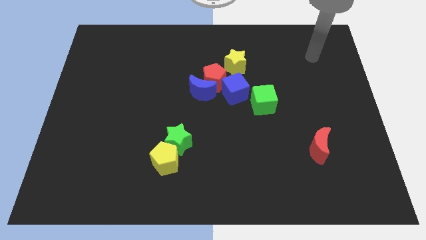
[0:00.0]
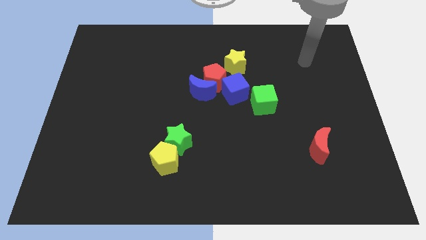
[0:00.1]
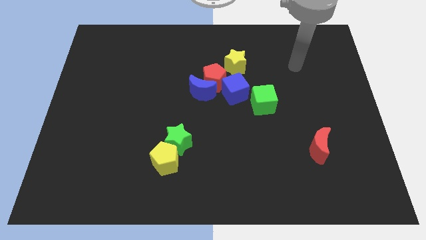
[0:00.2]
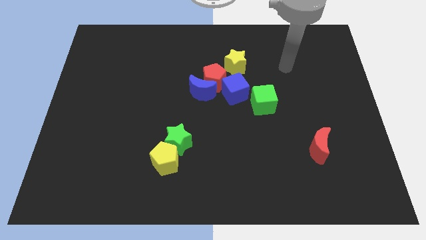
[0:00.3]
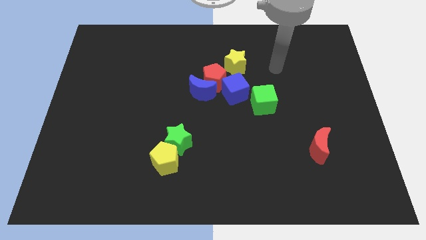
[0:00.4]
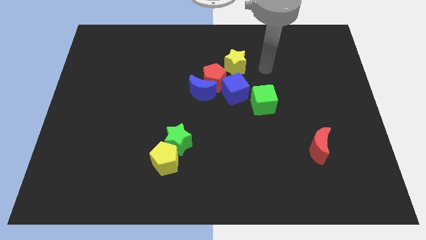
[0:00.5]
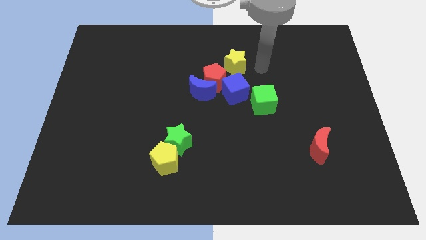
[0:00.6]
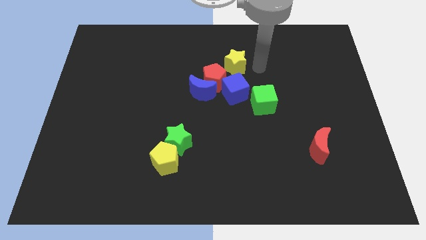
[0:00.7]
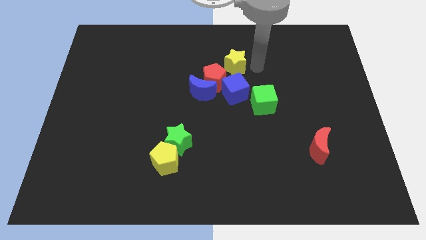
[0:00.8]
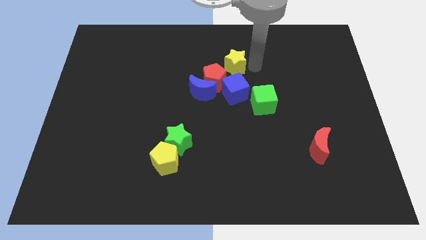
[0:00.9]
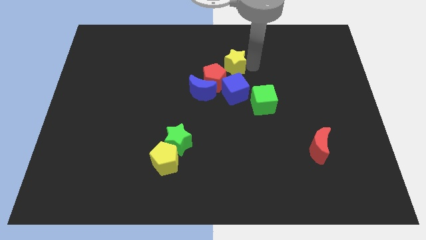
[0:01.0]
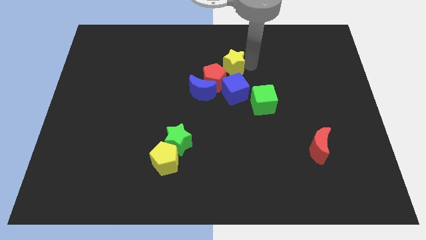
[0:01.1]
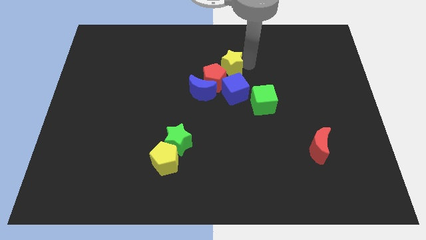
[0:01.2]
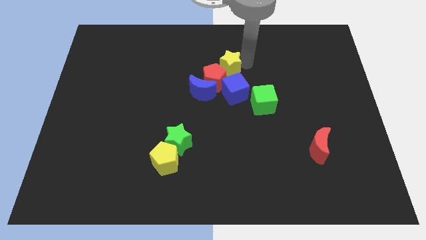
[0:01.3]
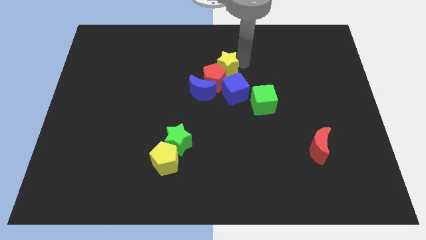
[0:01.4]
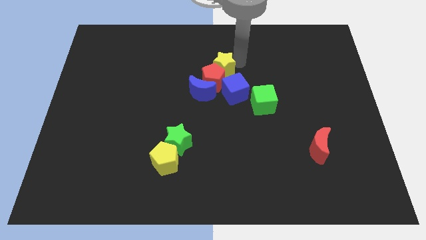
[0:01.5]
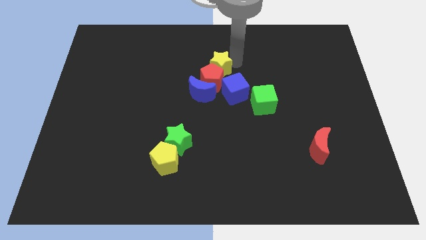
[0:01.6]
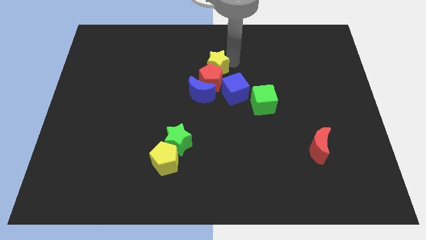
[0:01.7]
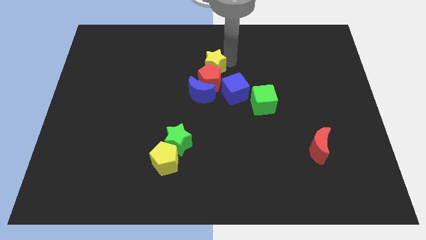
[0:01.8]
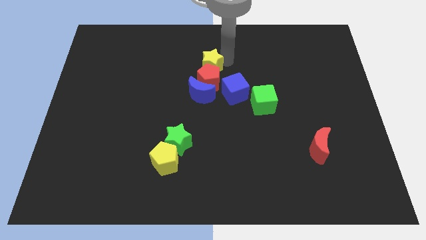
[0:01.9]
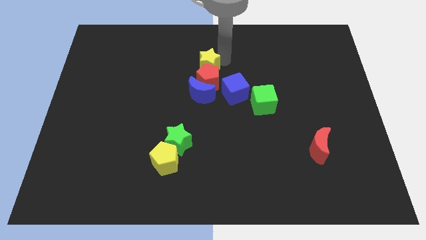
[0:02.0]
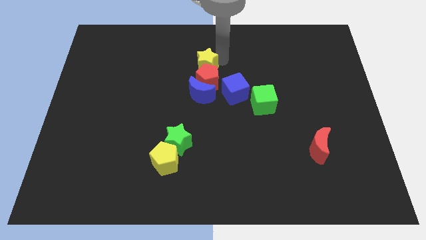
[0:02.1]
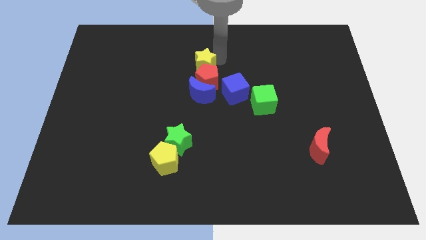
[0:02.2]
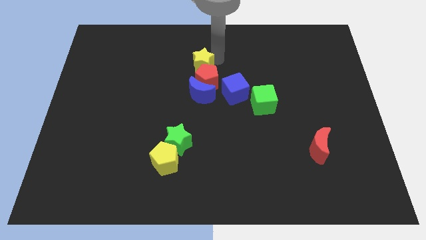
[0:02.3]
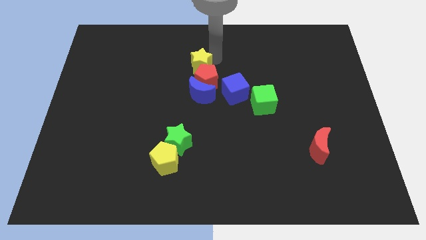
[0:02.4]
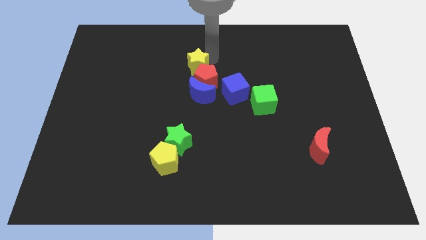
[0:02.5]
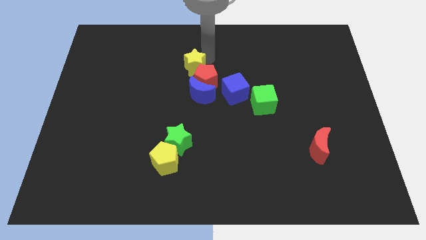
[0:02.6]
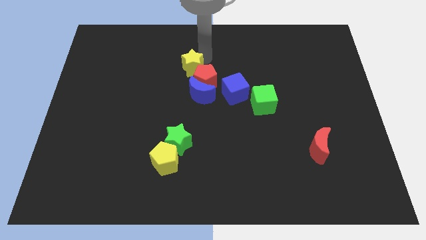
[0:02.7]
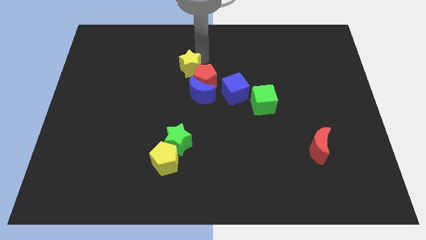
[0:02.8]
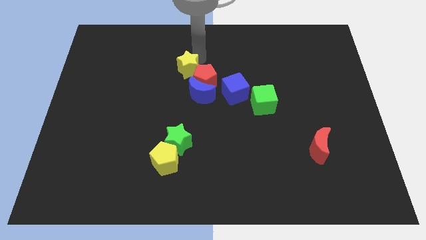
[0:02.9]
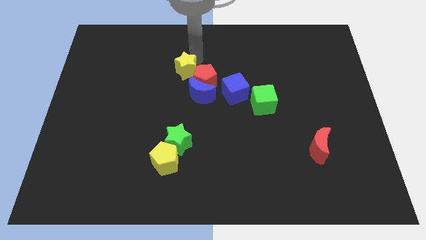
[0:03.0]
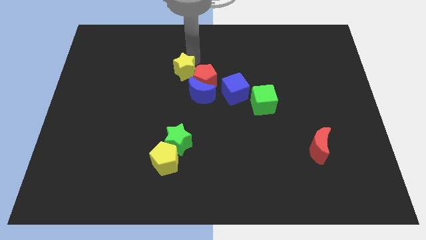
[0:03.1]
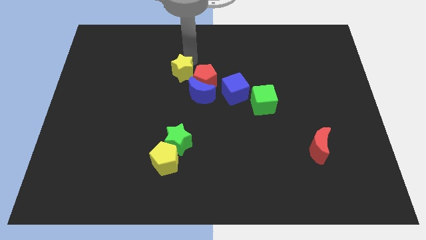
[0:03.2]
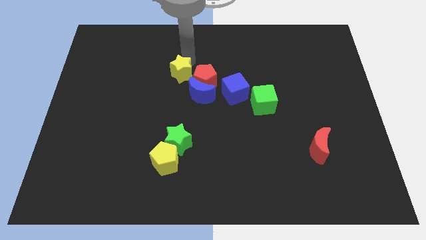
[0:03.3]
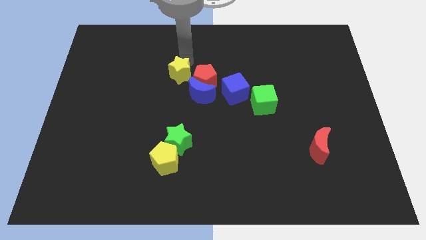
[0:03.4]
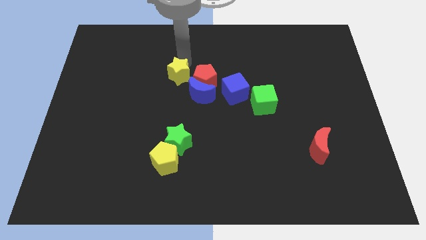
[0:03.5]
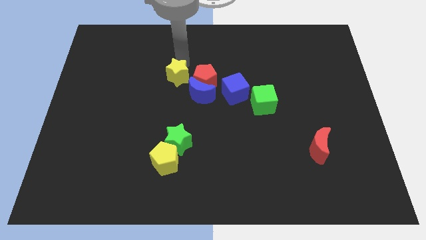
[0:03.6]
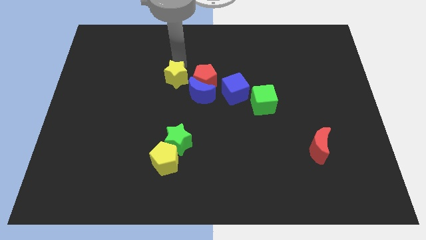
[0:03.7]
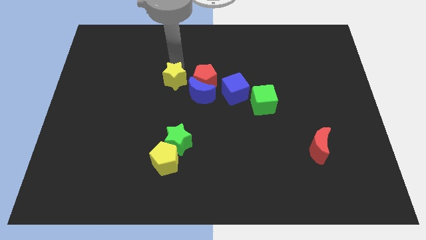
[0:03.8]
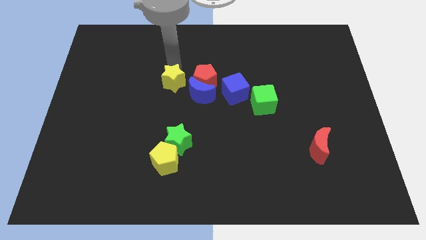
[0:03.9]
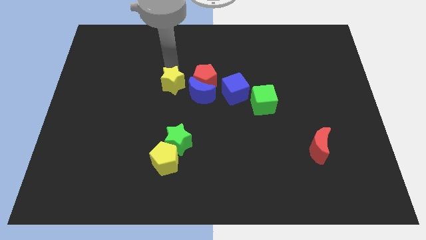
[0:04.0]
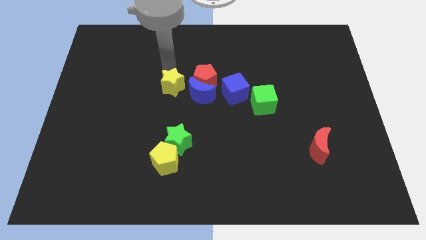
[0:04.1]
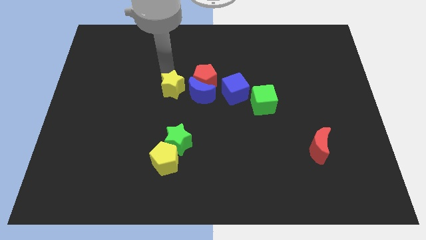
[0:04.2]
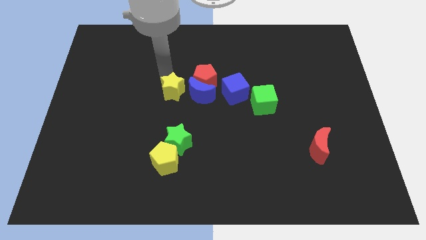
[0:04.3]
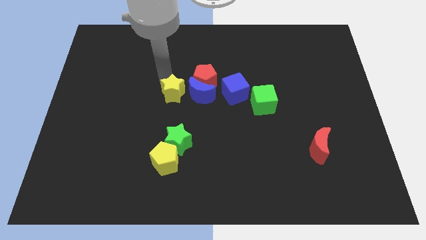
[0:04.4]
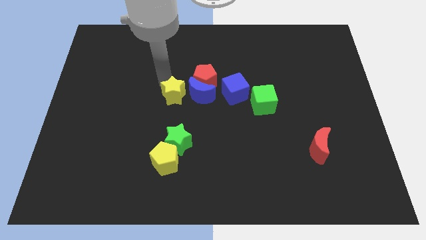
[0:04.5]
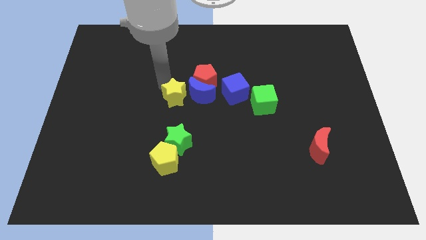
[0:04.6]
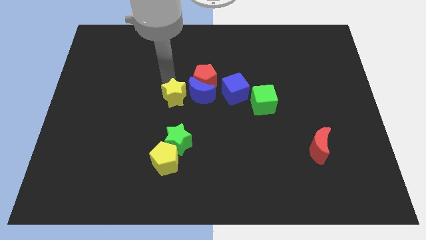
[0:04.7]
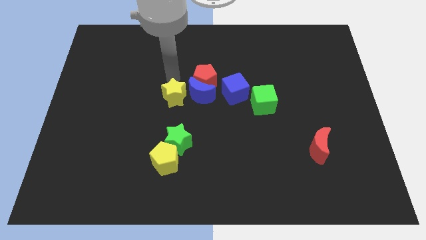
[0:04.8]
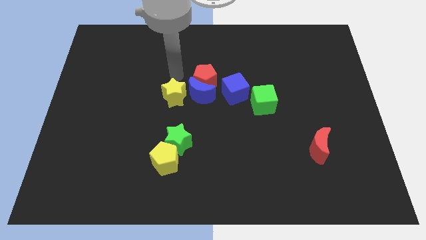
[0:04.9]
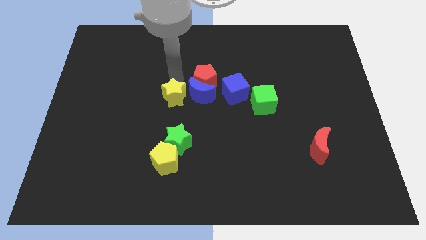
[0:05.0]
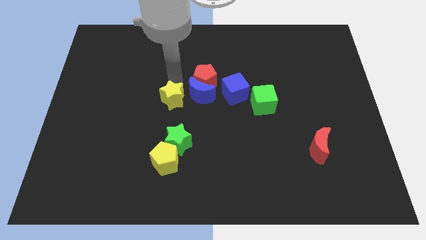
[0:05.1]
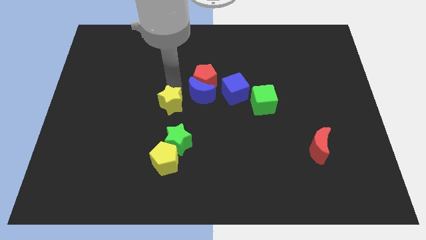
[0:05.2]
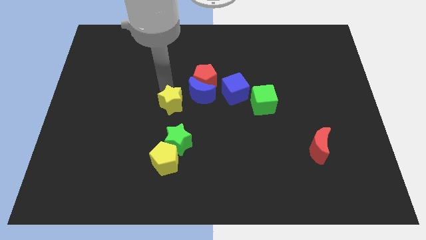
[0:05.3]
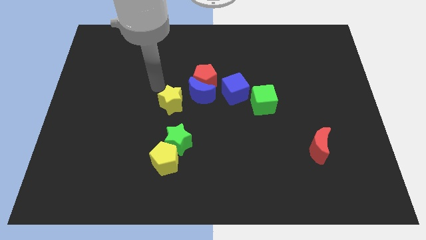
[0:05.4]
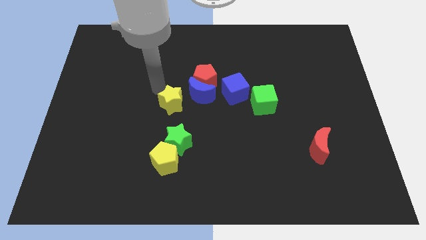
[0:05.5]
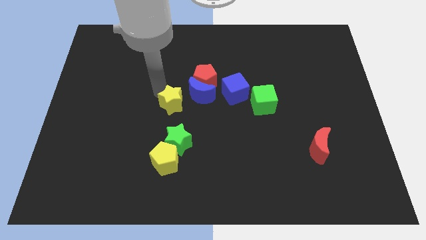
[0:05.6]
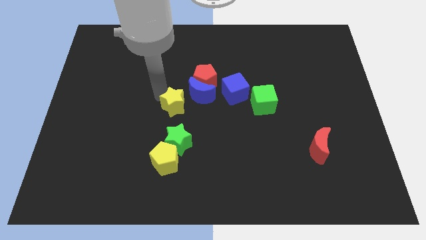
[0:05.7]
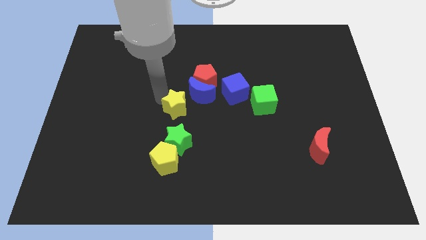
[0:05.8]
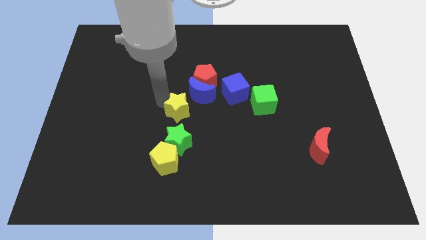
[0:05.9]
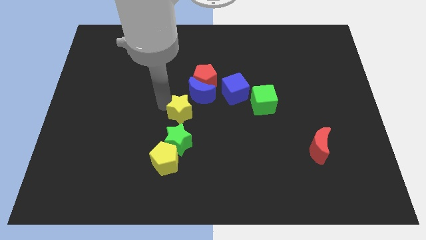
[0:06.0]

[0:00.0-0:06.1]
move the yellow star to the bottom side of the blue moon

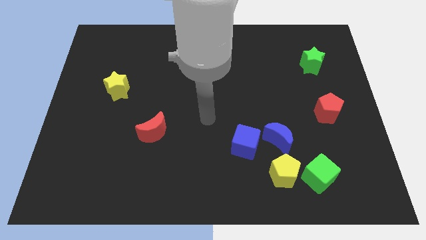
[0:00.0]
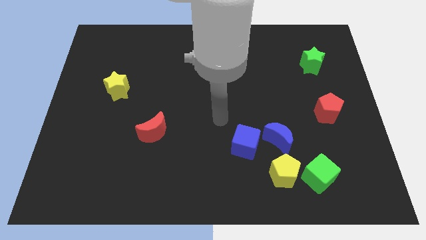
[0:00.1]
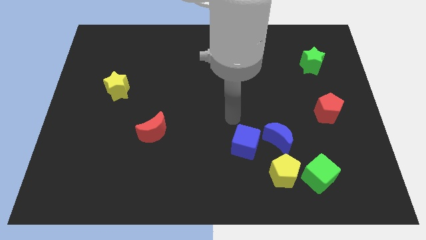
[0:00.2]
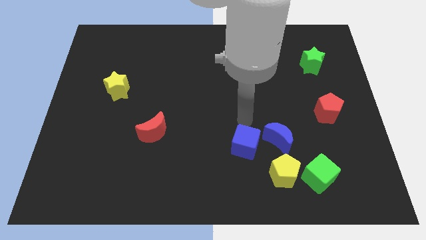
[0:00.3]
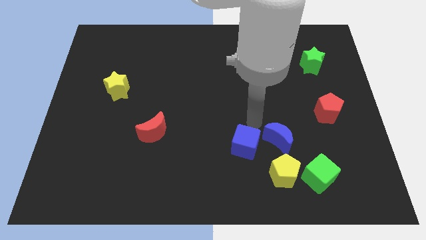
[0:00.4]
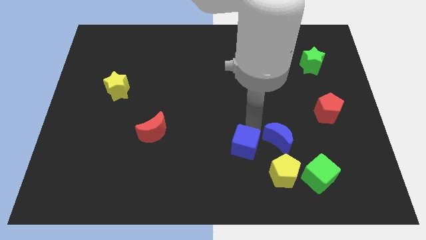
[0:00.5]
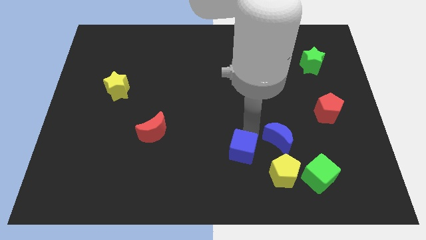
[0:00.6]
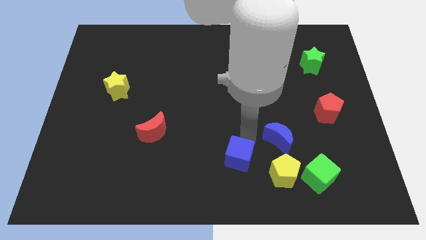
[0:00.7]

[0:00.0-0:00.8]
put the blue cube to the left of the yellow pentagon
